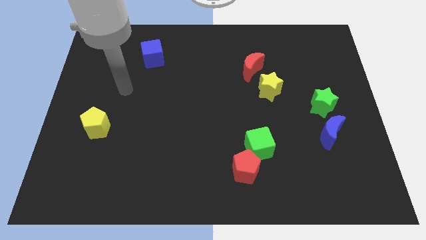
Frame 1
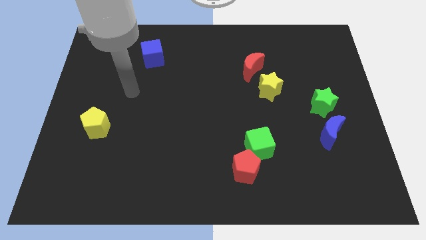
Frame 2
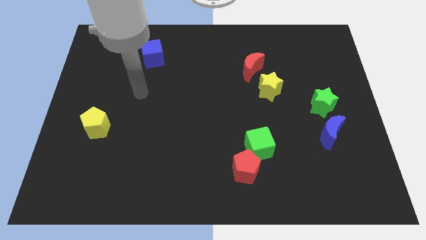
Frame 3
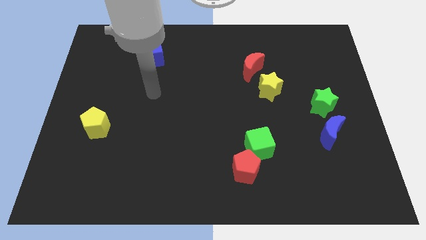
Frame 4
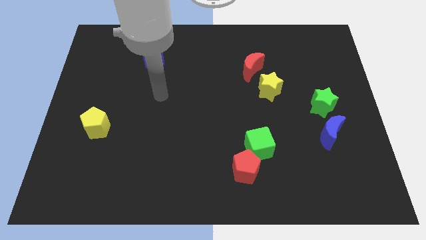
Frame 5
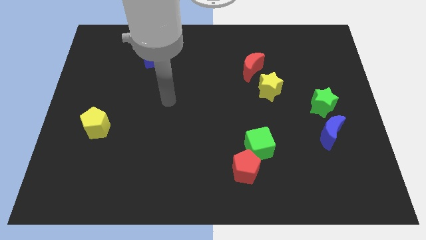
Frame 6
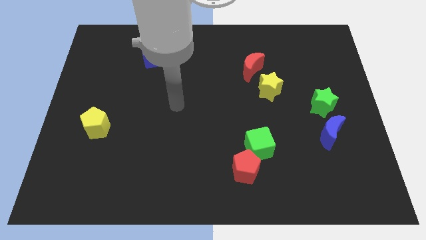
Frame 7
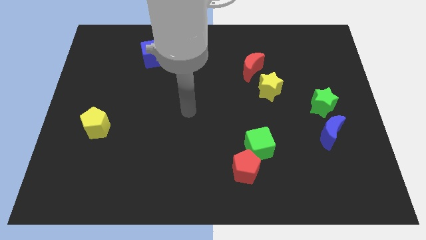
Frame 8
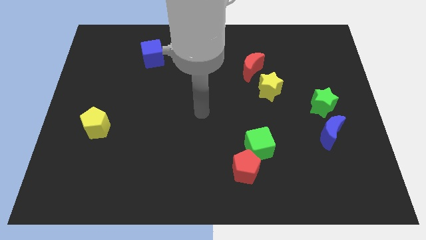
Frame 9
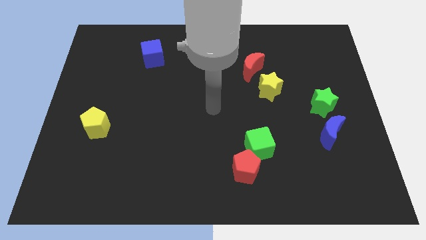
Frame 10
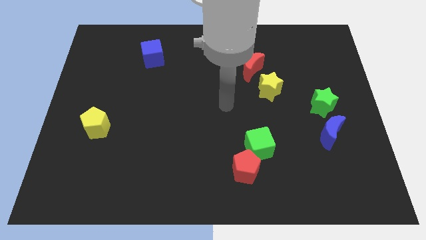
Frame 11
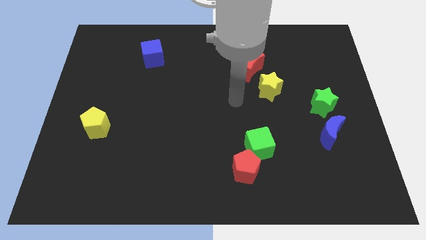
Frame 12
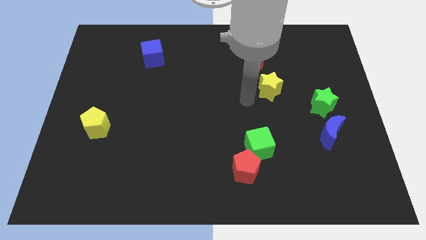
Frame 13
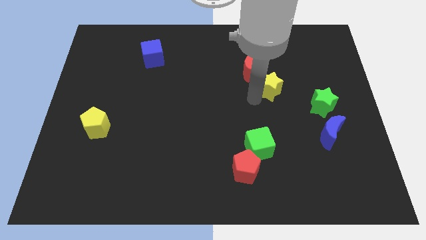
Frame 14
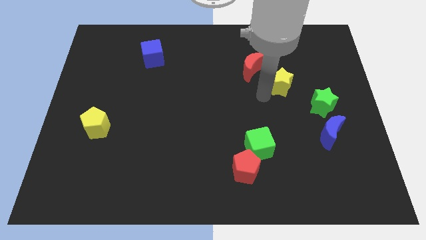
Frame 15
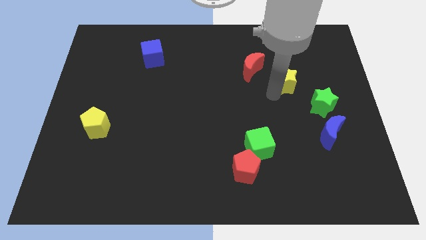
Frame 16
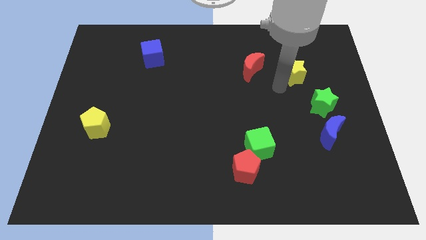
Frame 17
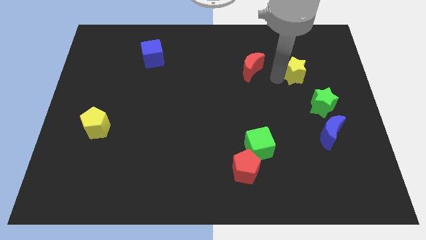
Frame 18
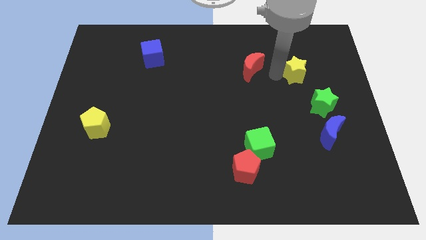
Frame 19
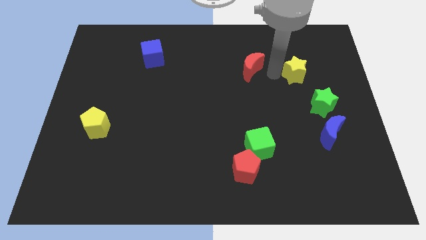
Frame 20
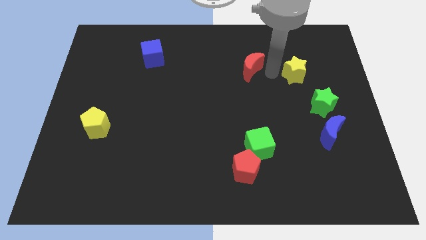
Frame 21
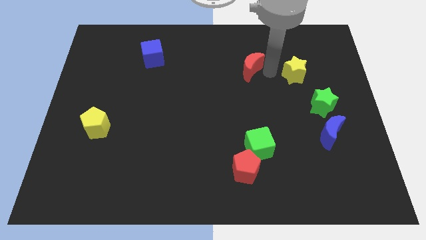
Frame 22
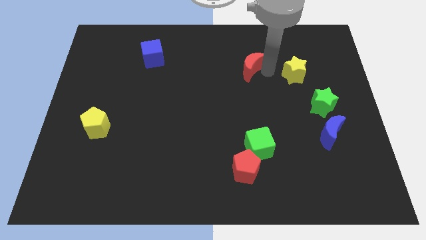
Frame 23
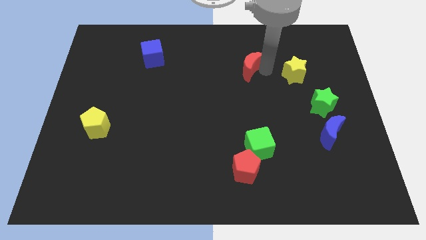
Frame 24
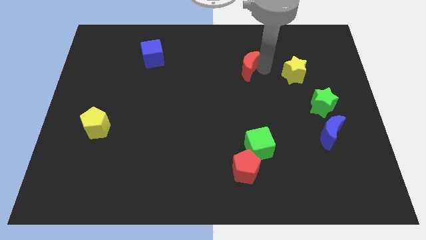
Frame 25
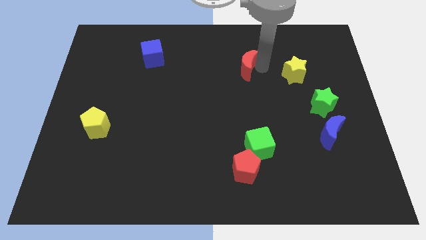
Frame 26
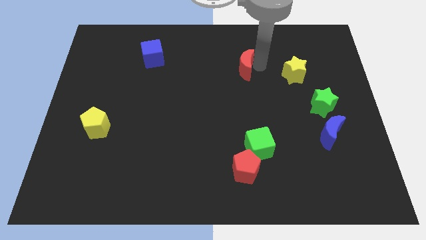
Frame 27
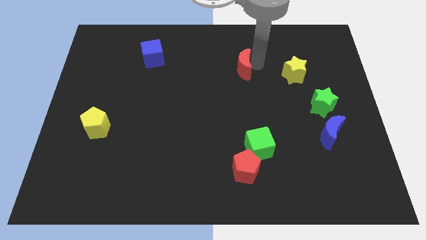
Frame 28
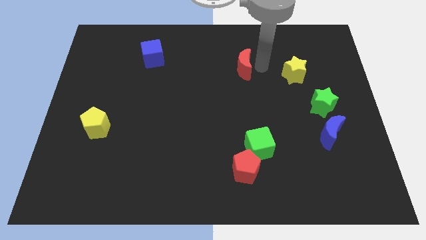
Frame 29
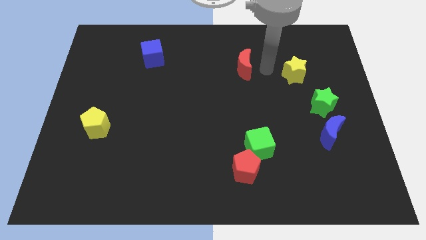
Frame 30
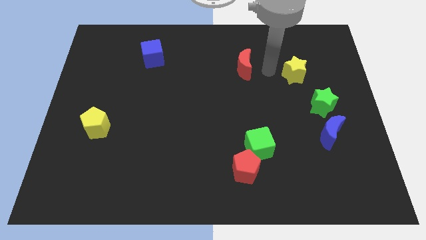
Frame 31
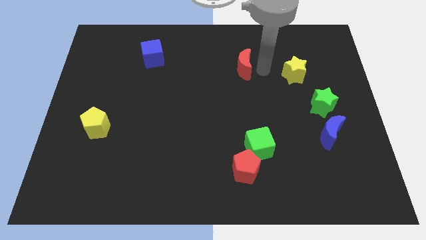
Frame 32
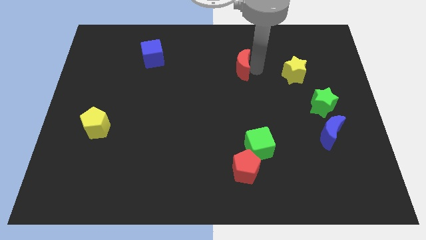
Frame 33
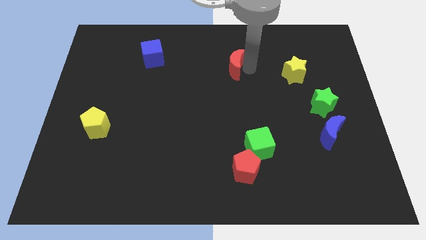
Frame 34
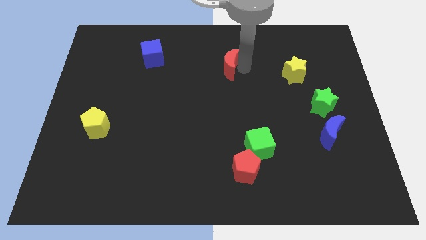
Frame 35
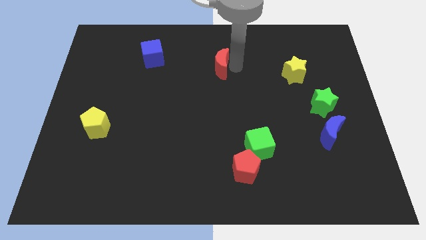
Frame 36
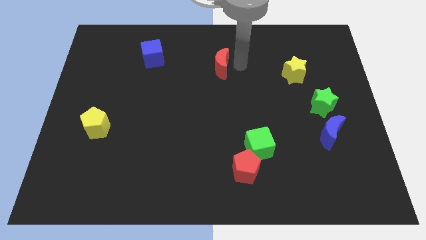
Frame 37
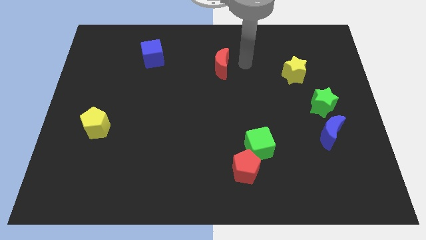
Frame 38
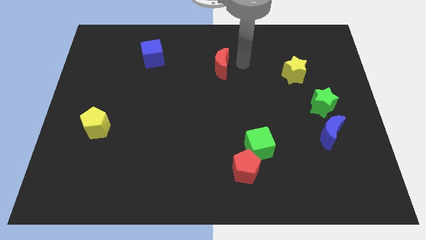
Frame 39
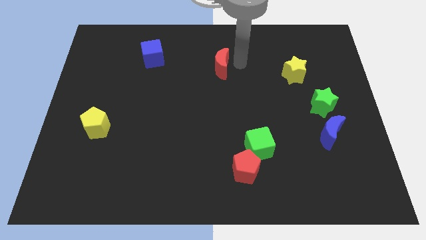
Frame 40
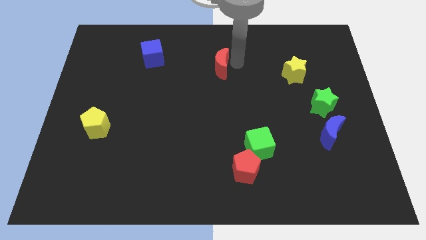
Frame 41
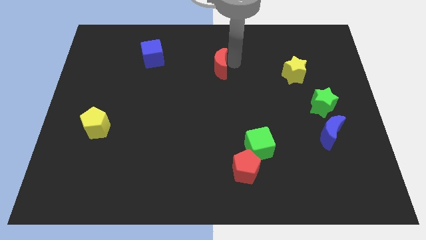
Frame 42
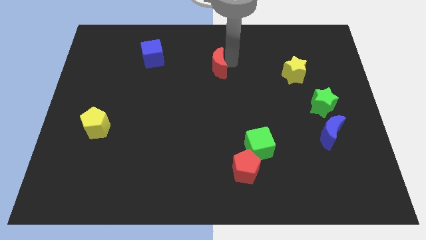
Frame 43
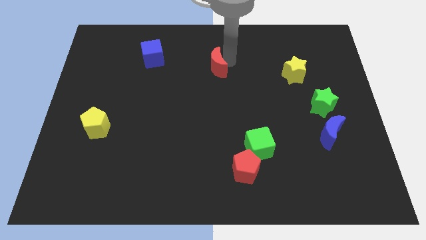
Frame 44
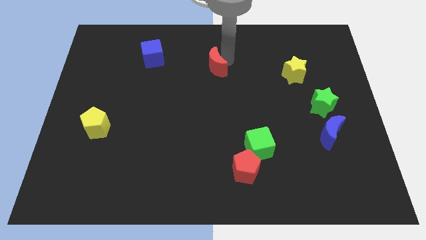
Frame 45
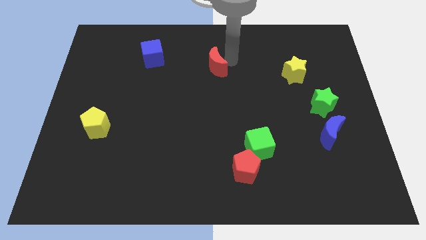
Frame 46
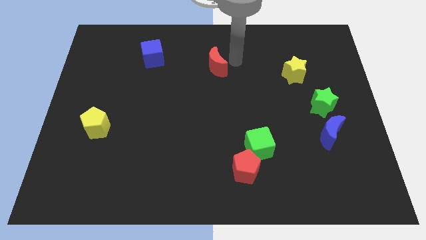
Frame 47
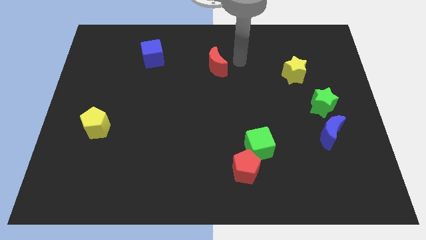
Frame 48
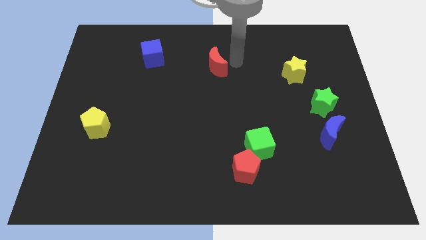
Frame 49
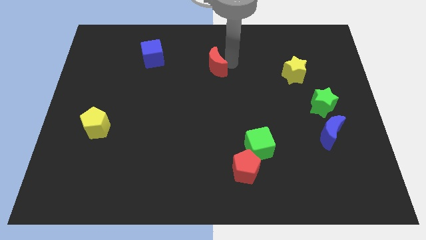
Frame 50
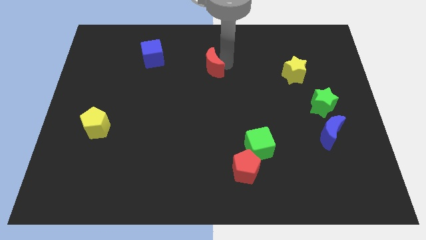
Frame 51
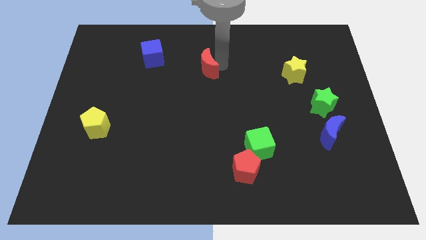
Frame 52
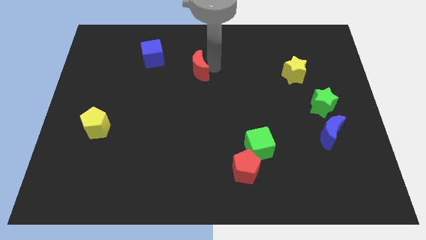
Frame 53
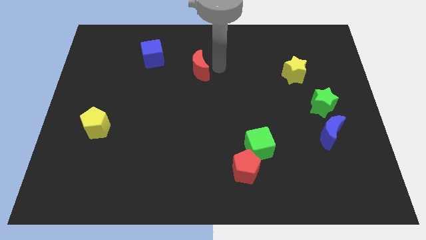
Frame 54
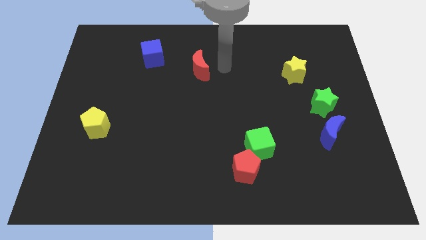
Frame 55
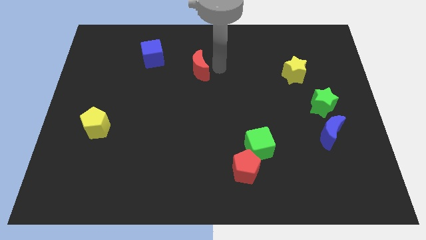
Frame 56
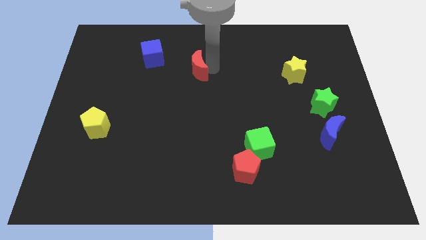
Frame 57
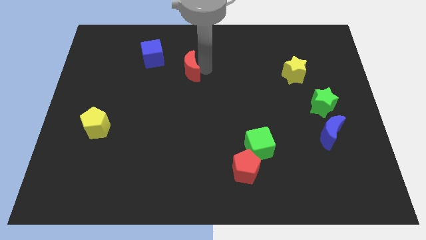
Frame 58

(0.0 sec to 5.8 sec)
move the red moon diagonally down and to the right of the blue cube

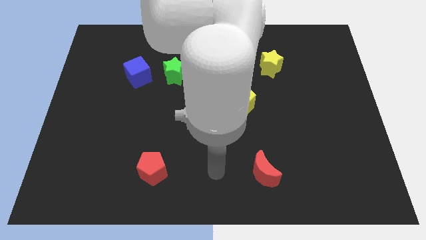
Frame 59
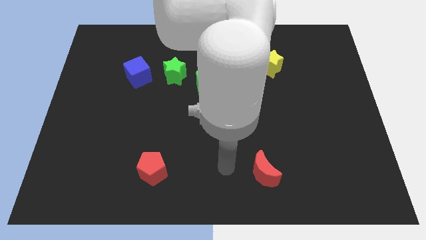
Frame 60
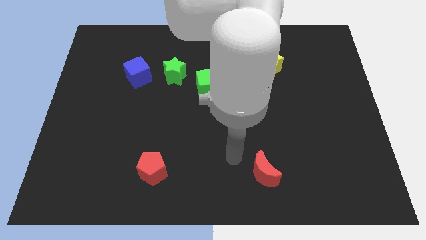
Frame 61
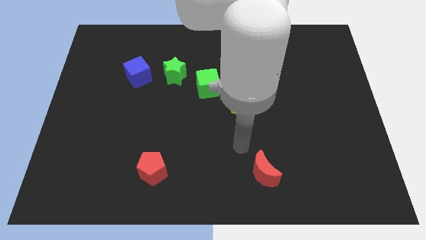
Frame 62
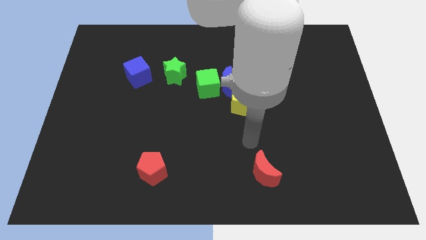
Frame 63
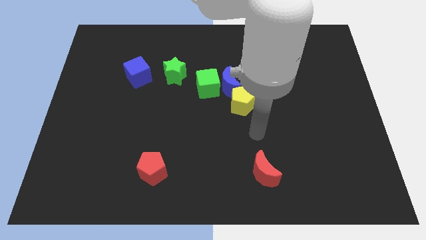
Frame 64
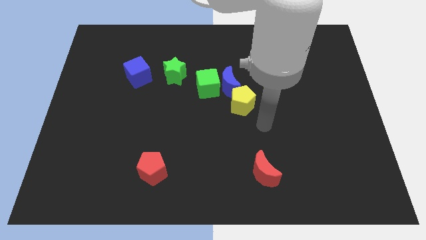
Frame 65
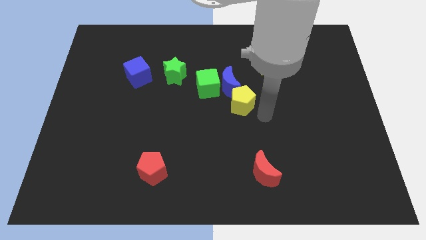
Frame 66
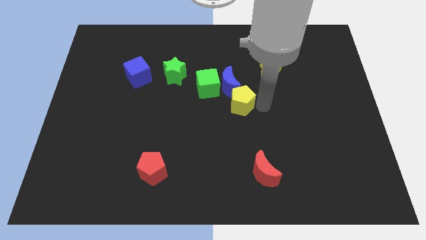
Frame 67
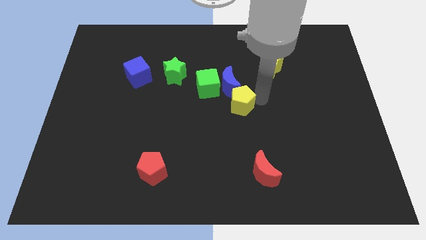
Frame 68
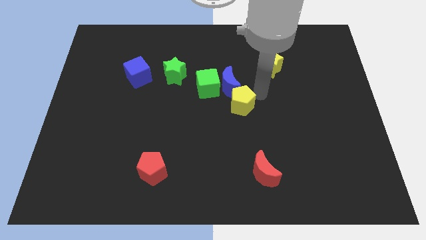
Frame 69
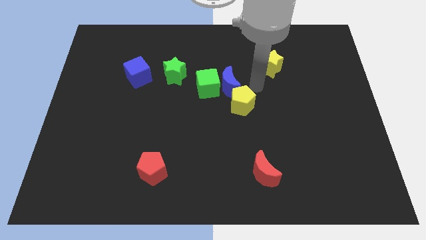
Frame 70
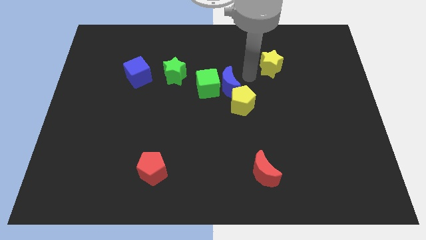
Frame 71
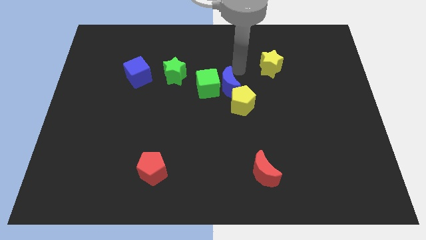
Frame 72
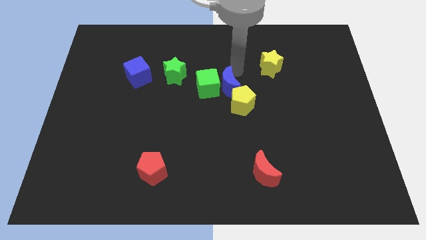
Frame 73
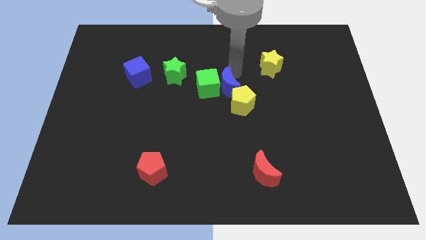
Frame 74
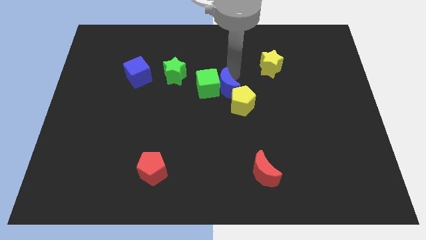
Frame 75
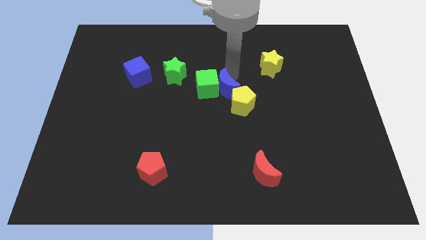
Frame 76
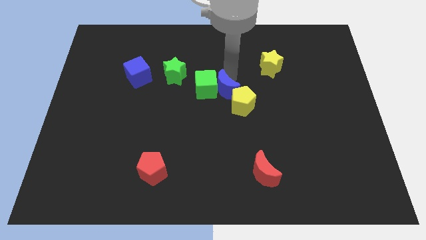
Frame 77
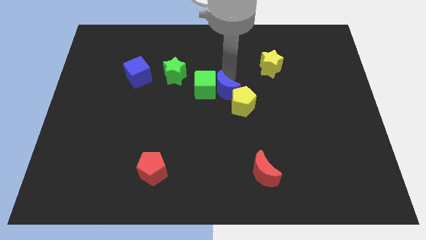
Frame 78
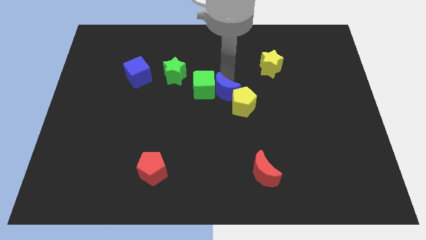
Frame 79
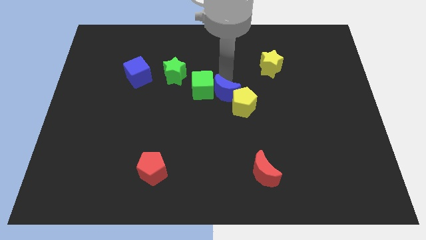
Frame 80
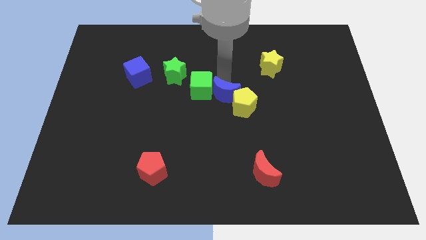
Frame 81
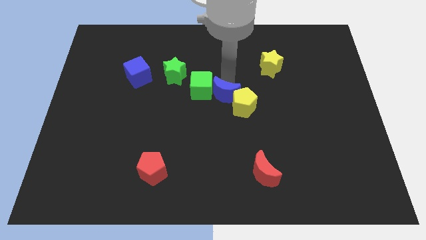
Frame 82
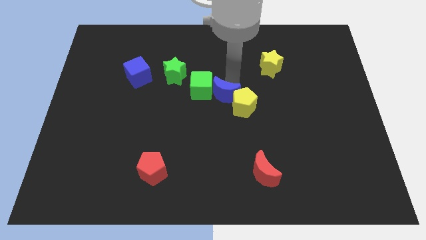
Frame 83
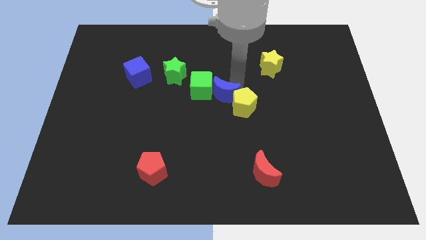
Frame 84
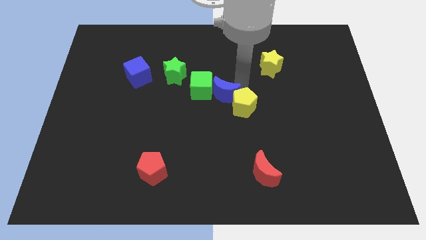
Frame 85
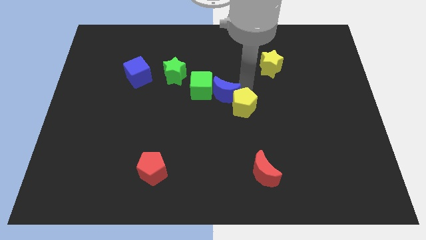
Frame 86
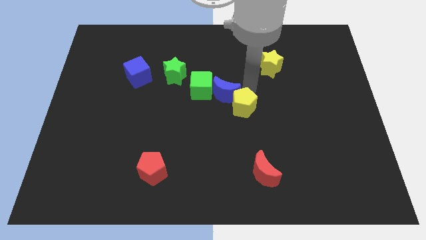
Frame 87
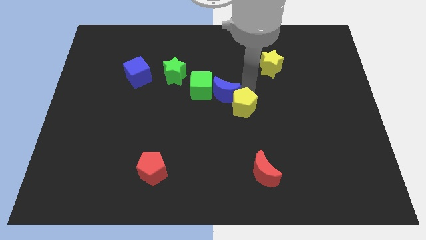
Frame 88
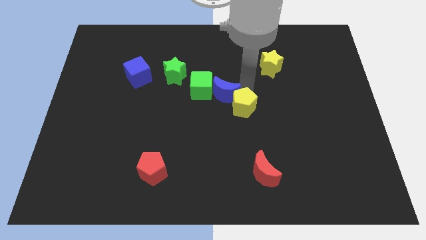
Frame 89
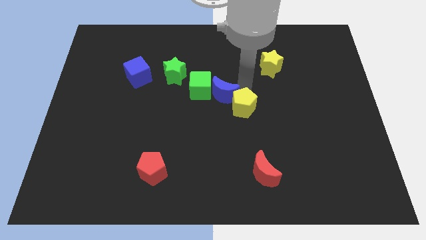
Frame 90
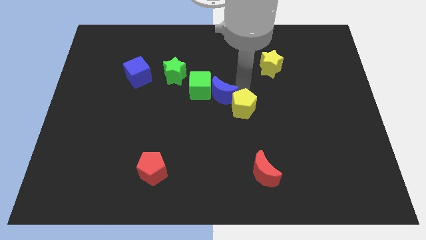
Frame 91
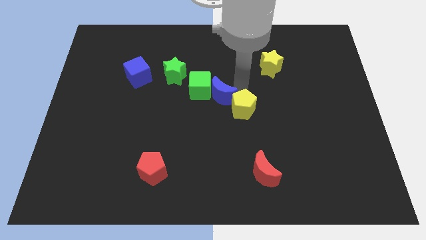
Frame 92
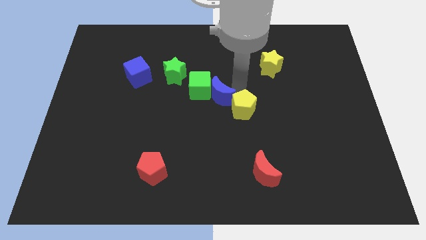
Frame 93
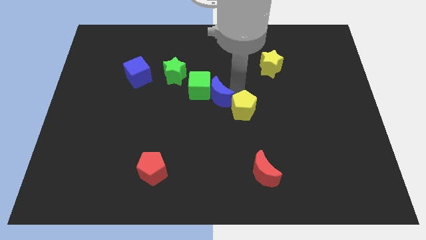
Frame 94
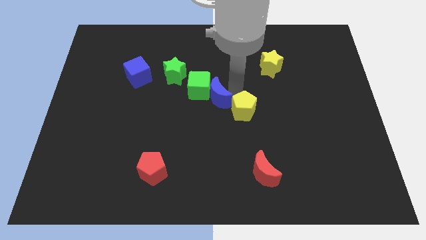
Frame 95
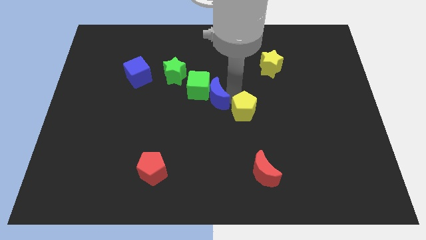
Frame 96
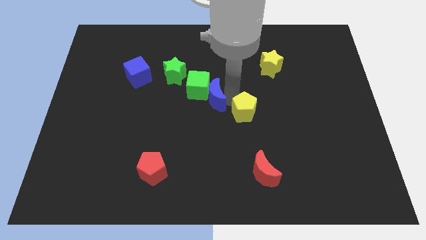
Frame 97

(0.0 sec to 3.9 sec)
slide the blue moon diagonally down and to the right of the green star
